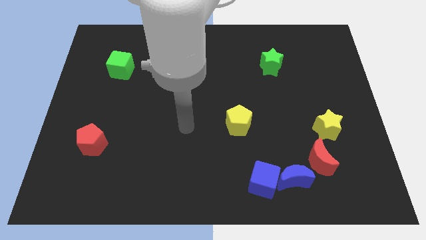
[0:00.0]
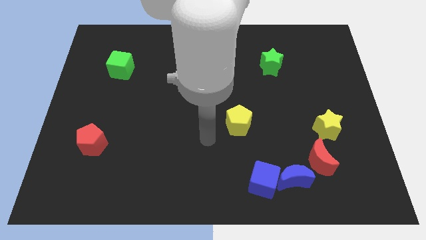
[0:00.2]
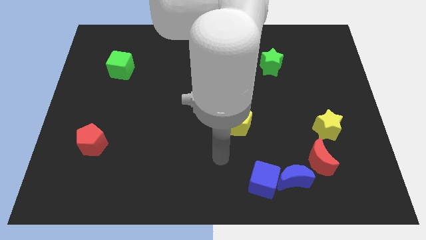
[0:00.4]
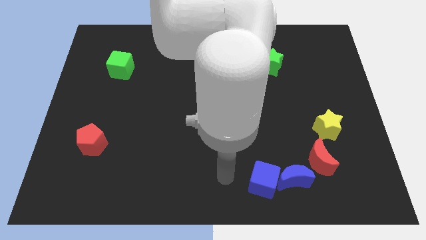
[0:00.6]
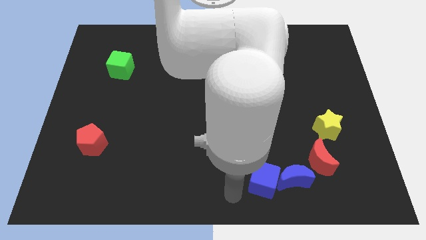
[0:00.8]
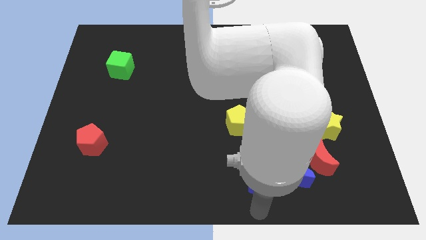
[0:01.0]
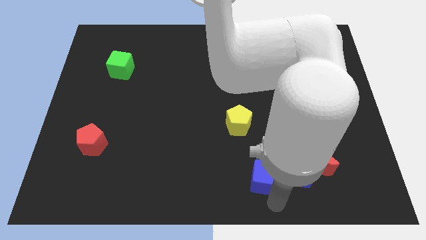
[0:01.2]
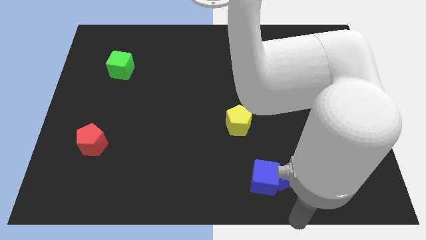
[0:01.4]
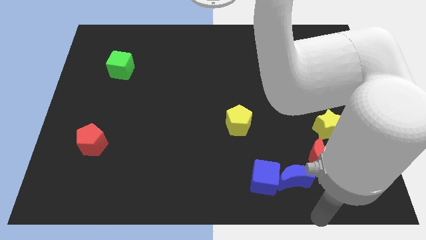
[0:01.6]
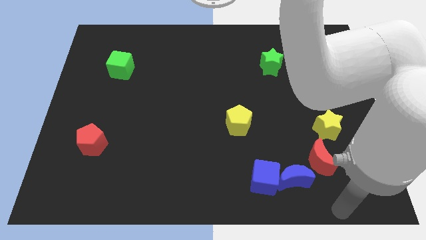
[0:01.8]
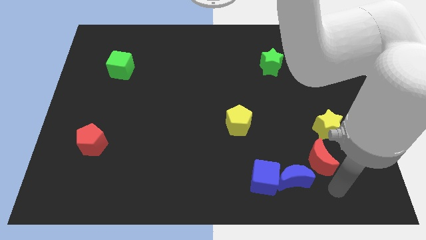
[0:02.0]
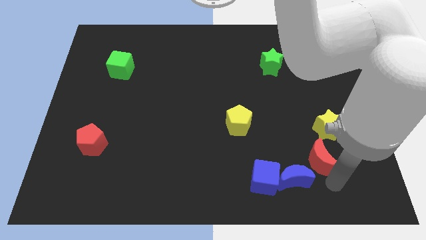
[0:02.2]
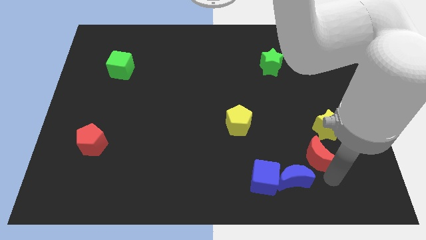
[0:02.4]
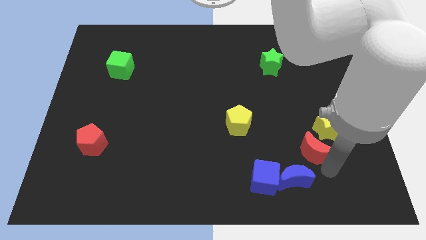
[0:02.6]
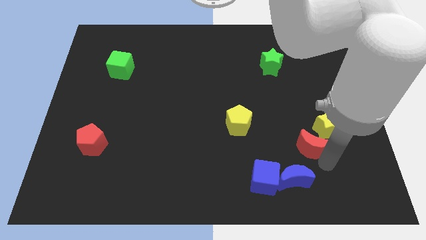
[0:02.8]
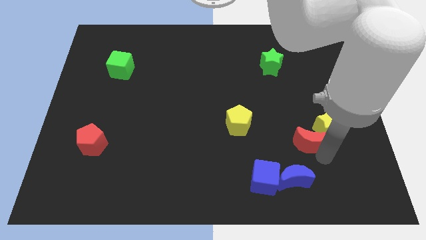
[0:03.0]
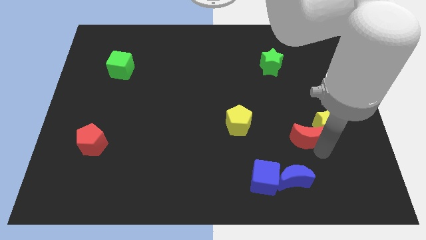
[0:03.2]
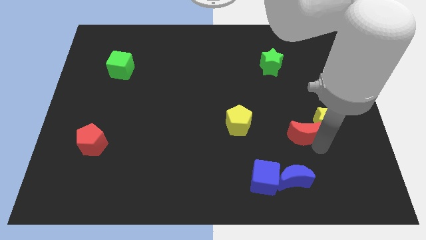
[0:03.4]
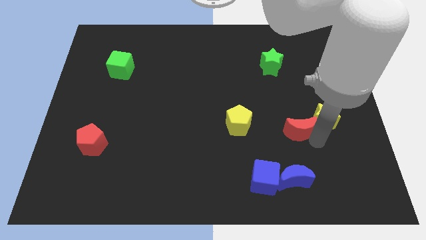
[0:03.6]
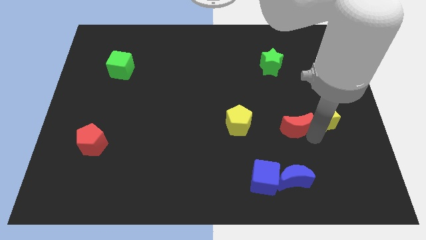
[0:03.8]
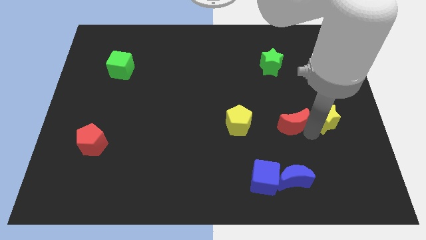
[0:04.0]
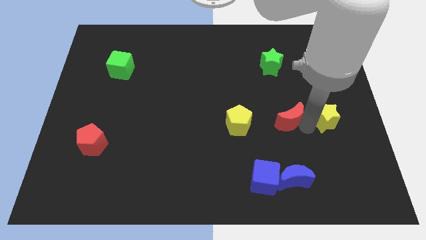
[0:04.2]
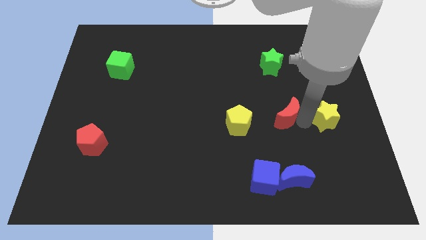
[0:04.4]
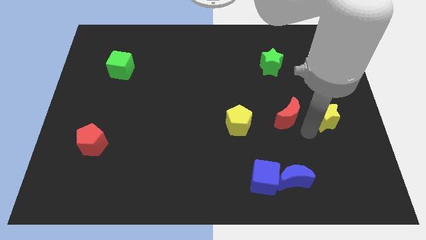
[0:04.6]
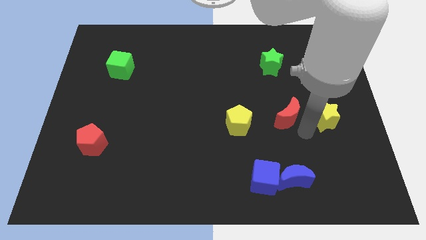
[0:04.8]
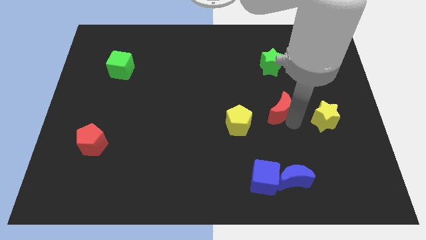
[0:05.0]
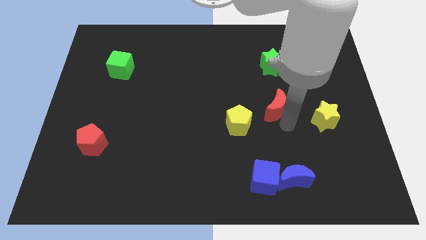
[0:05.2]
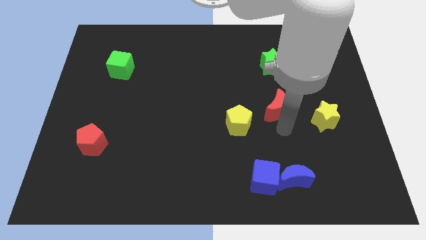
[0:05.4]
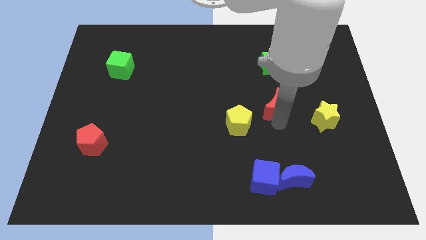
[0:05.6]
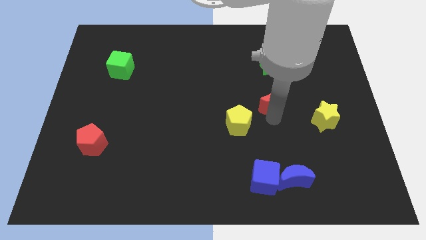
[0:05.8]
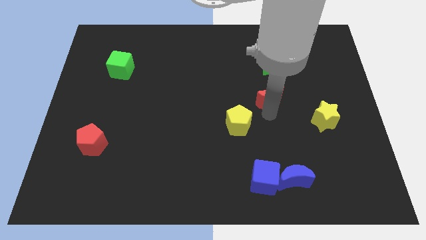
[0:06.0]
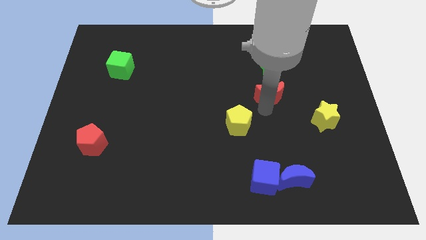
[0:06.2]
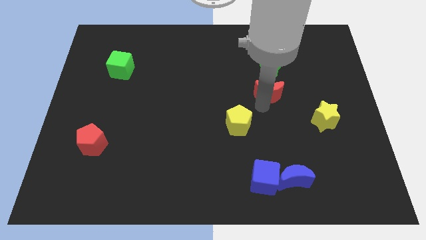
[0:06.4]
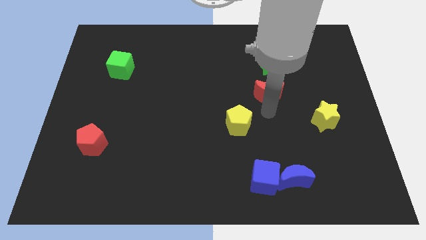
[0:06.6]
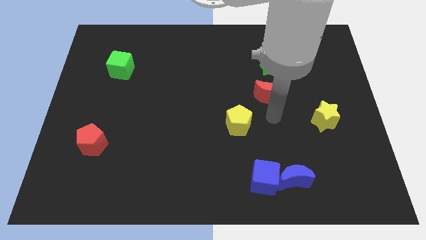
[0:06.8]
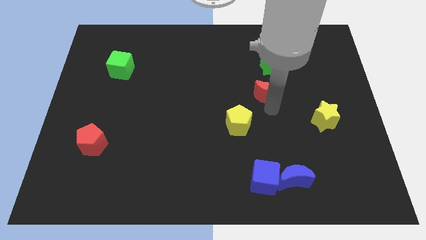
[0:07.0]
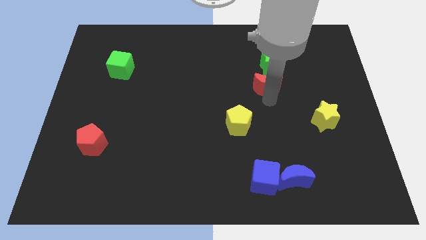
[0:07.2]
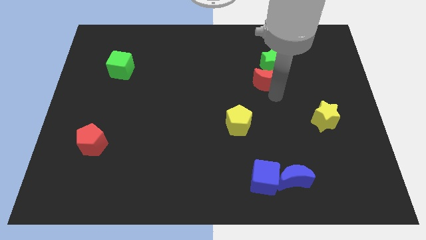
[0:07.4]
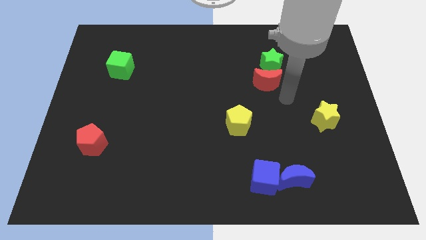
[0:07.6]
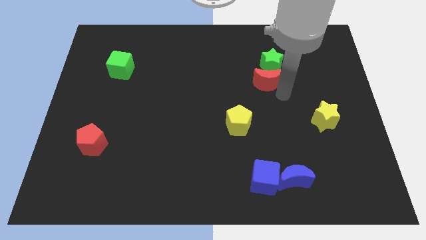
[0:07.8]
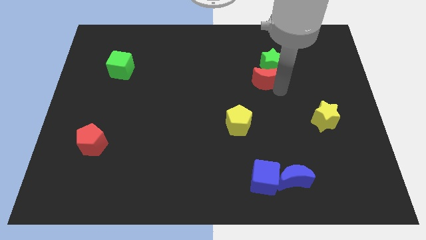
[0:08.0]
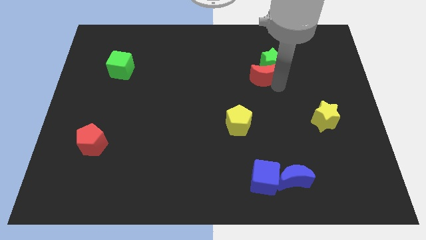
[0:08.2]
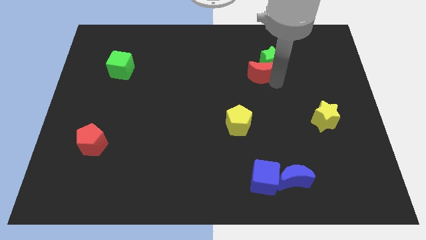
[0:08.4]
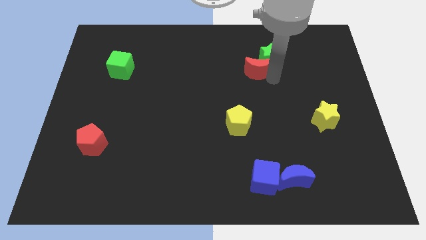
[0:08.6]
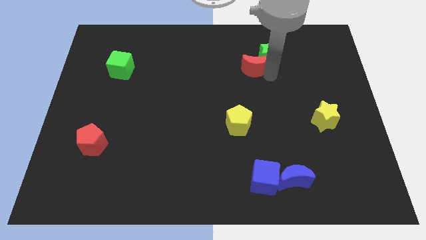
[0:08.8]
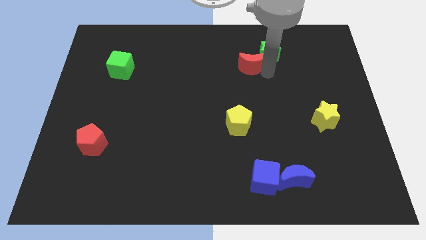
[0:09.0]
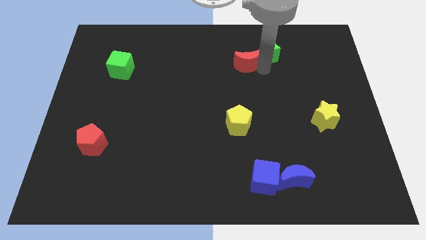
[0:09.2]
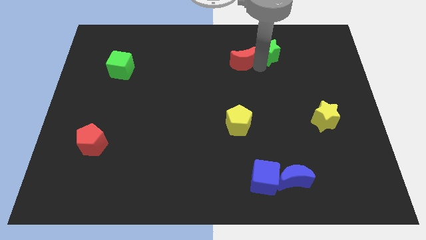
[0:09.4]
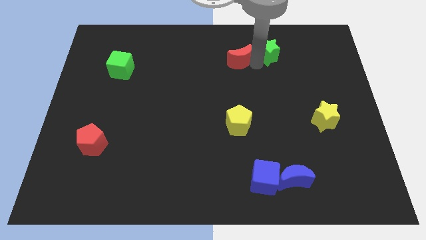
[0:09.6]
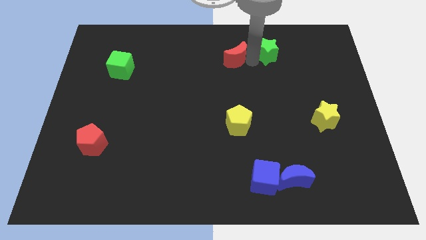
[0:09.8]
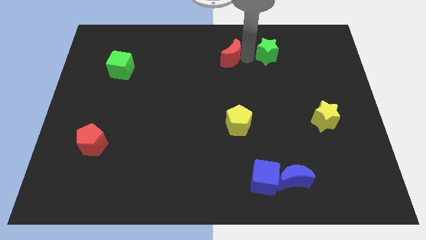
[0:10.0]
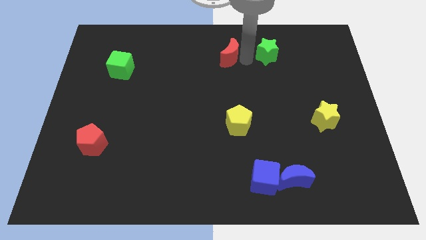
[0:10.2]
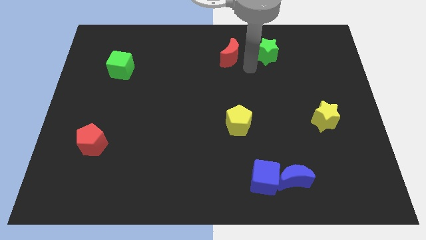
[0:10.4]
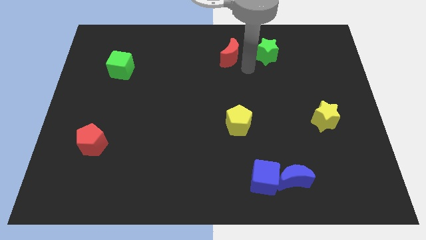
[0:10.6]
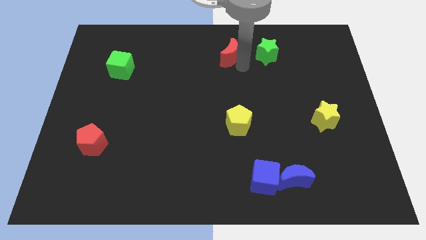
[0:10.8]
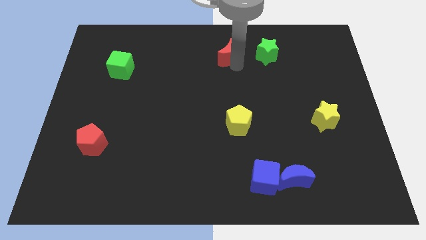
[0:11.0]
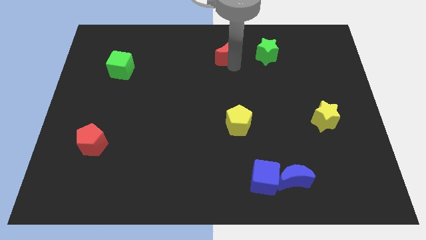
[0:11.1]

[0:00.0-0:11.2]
push the red moon to the top side

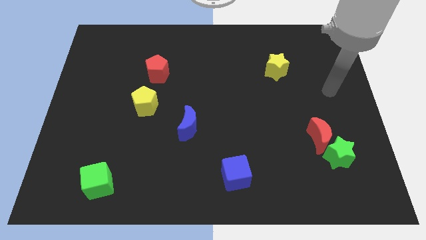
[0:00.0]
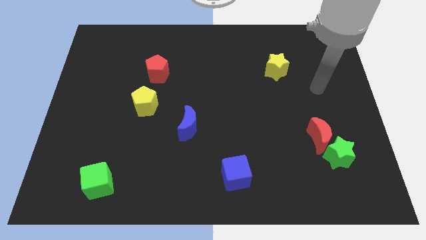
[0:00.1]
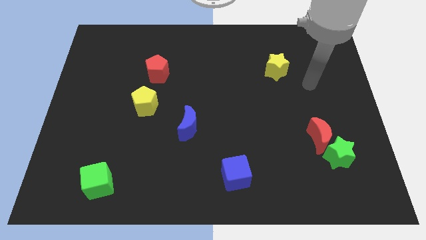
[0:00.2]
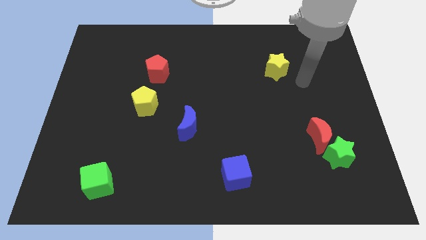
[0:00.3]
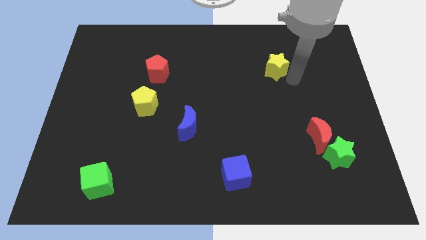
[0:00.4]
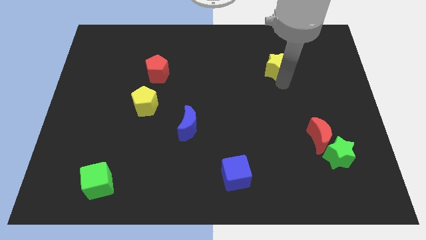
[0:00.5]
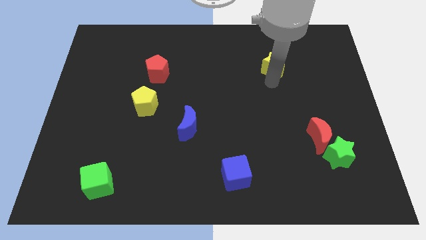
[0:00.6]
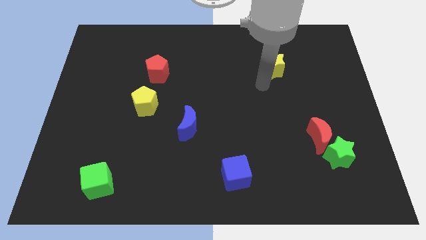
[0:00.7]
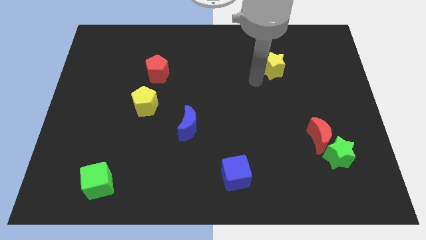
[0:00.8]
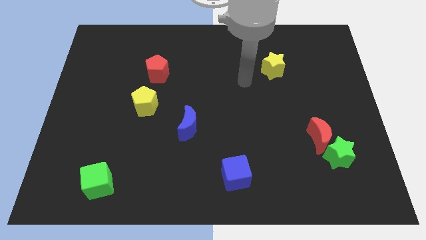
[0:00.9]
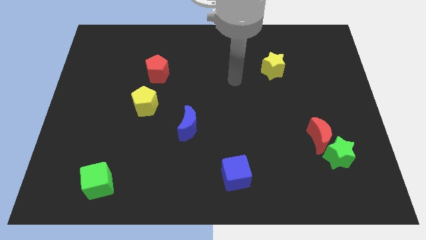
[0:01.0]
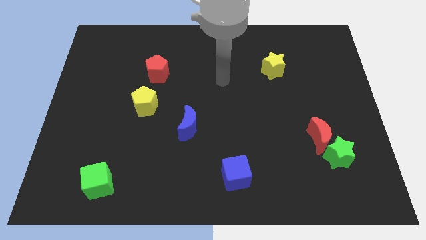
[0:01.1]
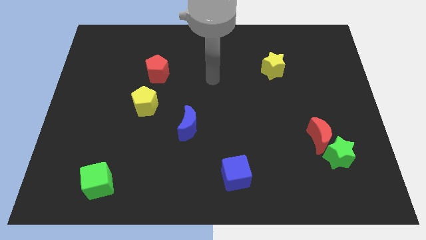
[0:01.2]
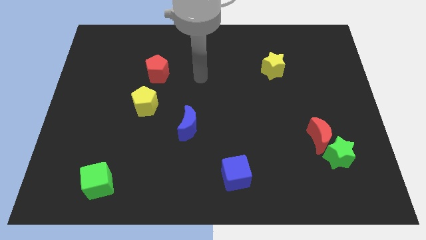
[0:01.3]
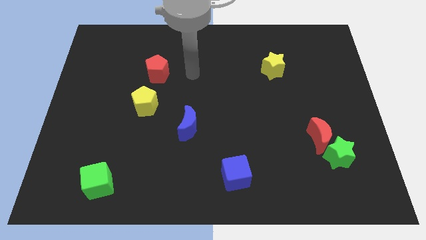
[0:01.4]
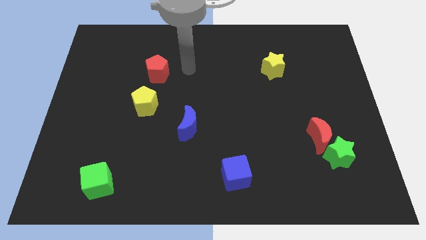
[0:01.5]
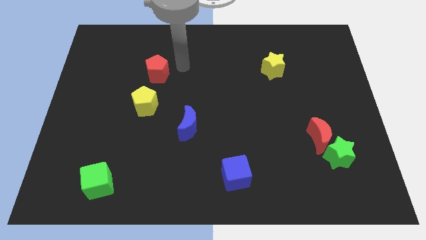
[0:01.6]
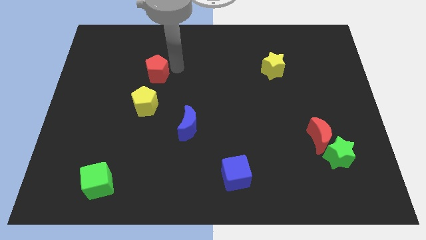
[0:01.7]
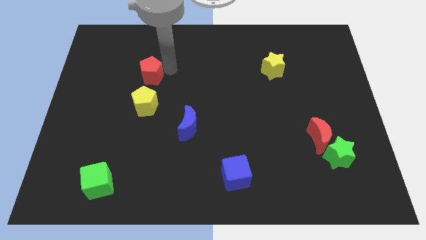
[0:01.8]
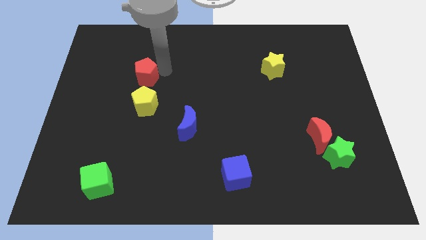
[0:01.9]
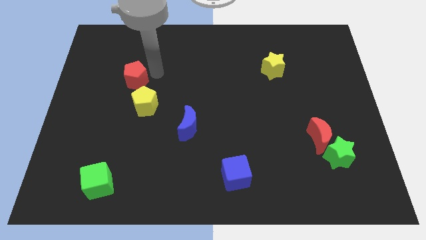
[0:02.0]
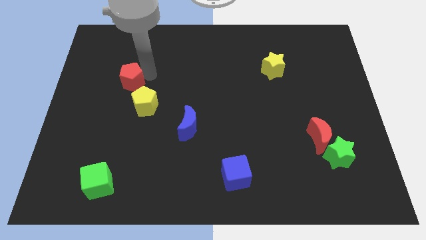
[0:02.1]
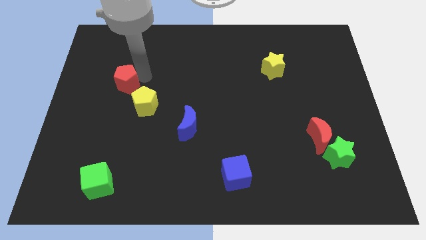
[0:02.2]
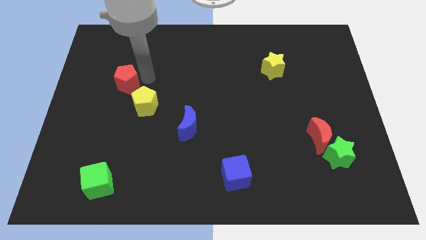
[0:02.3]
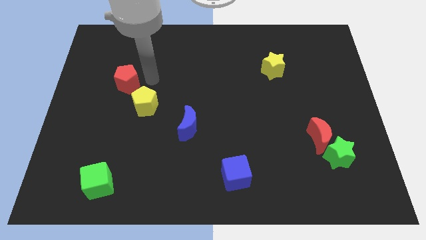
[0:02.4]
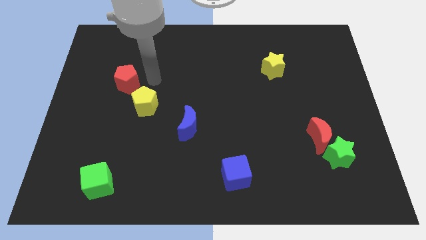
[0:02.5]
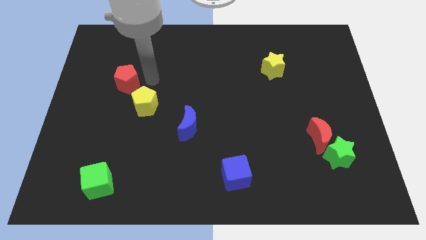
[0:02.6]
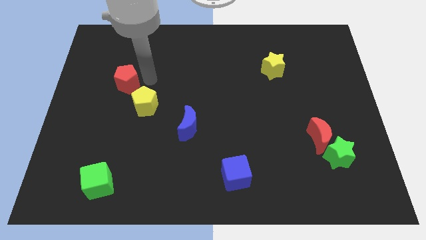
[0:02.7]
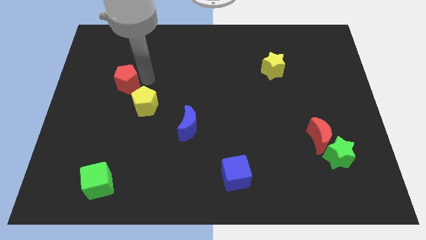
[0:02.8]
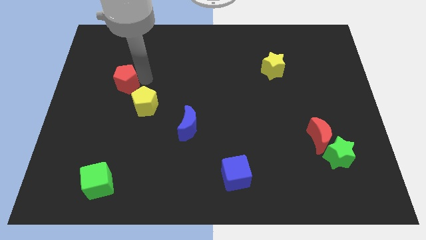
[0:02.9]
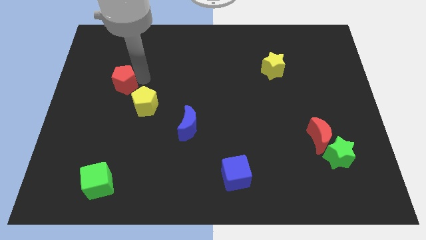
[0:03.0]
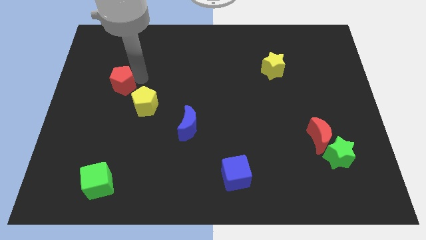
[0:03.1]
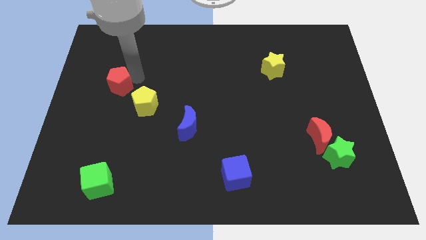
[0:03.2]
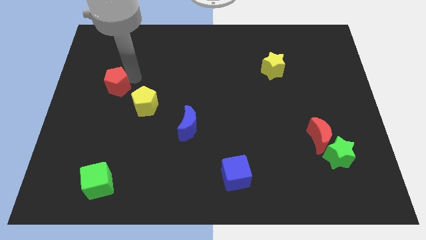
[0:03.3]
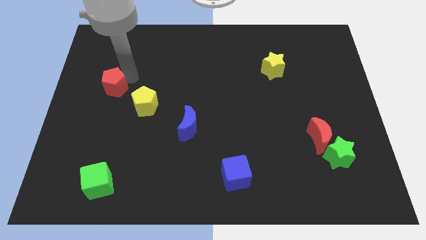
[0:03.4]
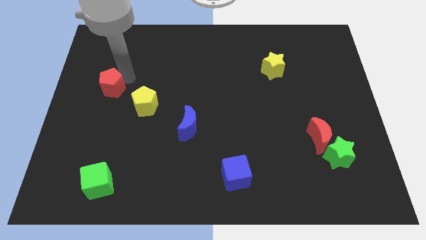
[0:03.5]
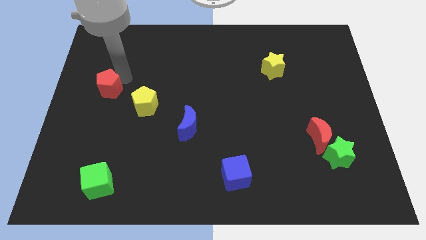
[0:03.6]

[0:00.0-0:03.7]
push the red pentagon to the left side of the board
